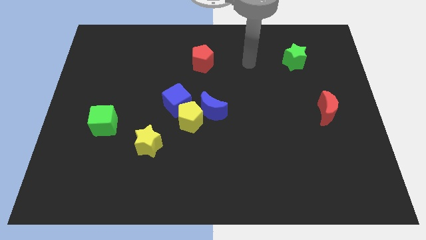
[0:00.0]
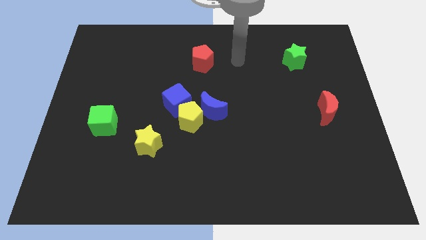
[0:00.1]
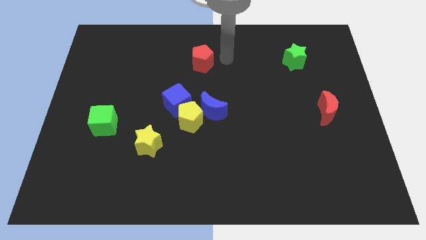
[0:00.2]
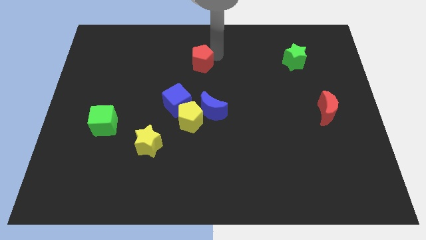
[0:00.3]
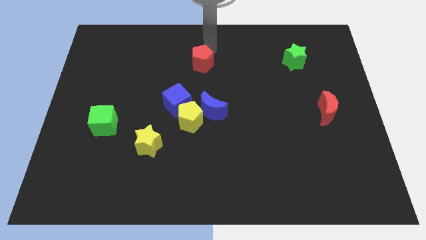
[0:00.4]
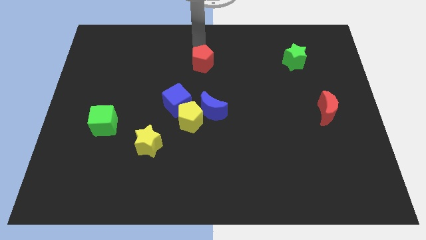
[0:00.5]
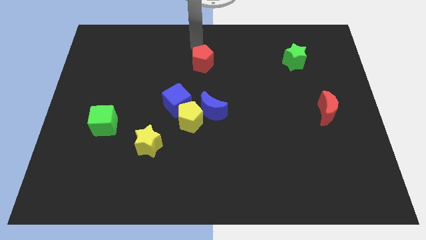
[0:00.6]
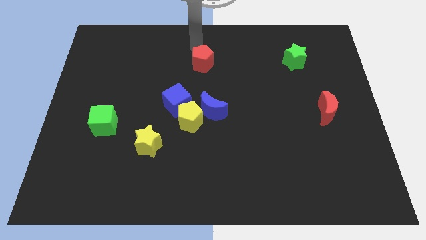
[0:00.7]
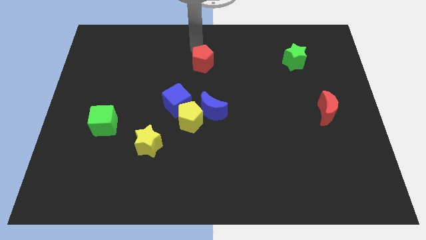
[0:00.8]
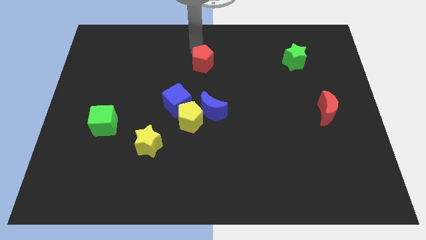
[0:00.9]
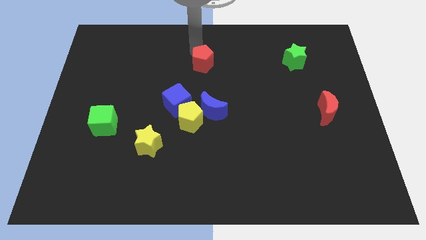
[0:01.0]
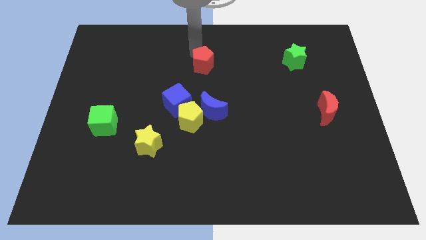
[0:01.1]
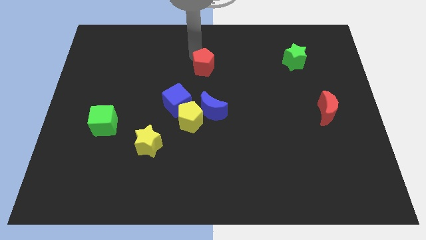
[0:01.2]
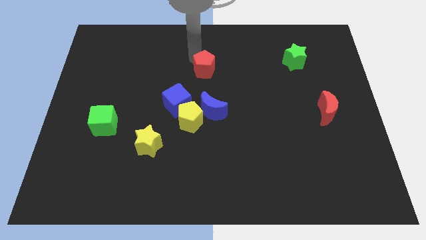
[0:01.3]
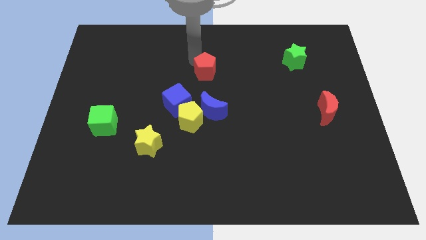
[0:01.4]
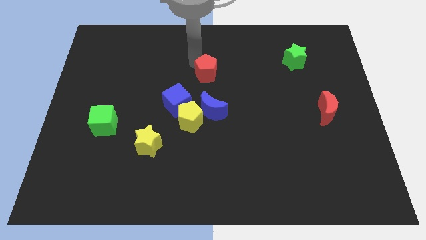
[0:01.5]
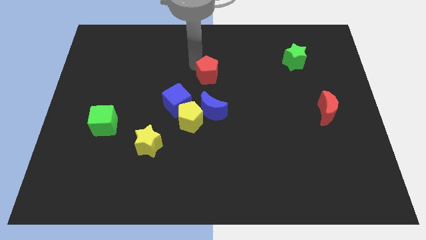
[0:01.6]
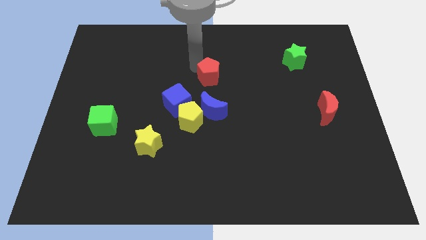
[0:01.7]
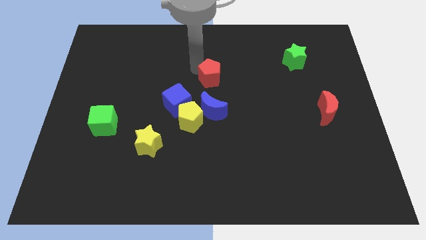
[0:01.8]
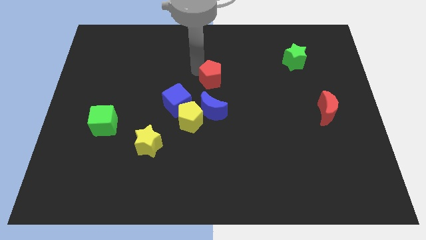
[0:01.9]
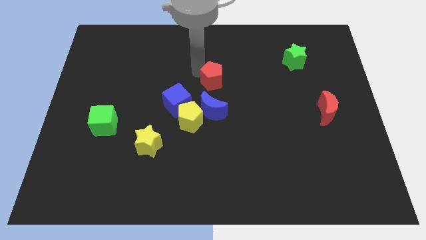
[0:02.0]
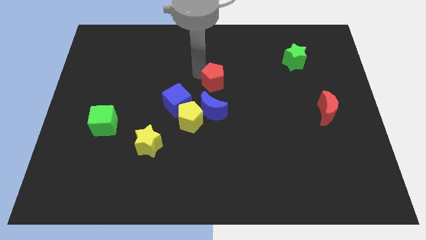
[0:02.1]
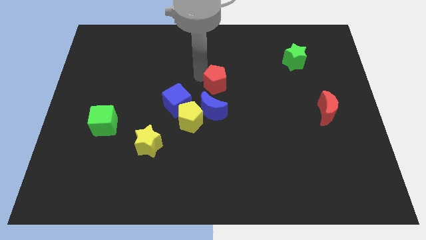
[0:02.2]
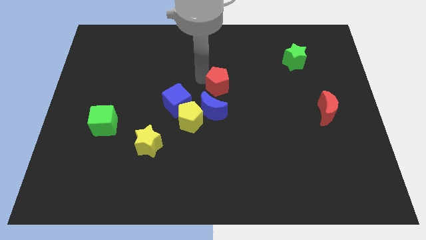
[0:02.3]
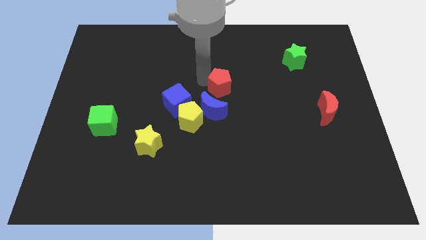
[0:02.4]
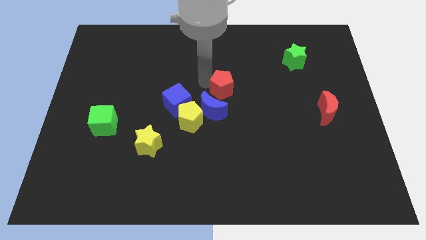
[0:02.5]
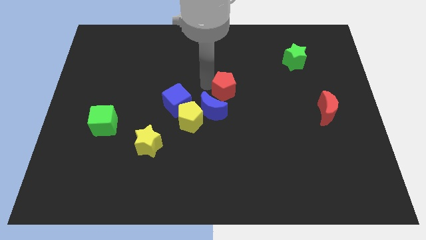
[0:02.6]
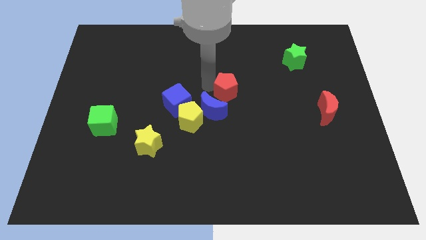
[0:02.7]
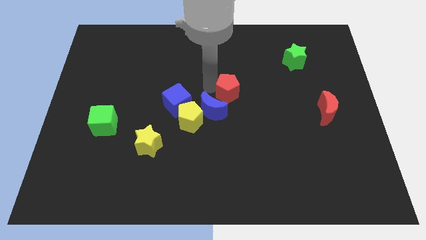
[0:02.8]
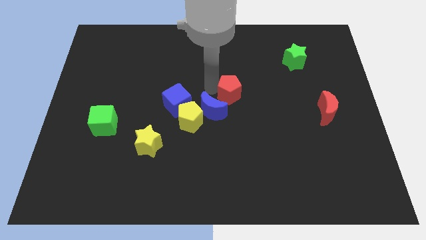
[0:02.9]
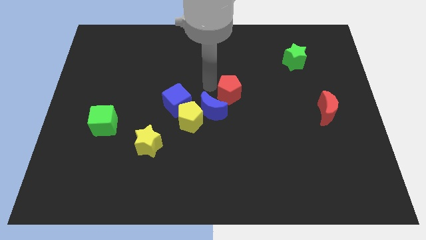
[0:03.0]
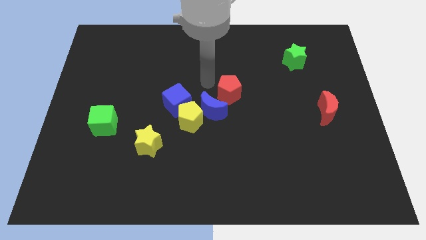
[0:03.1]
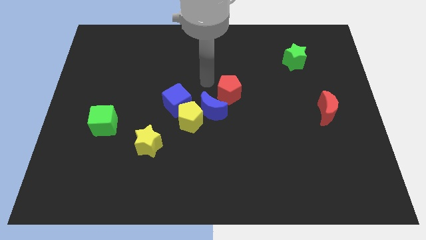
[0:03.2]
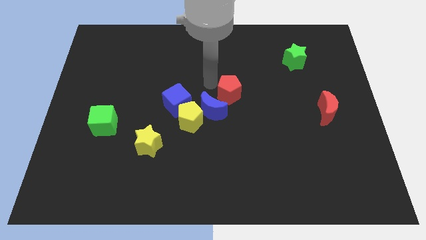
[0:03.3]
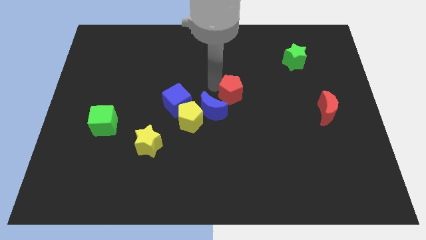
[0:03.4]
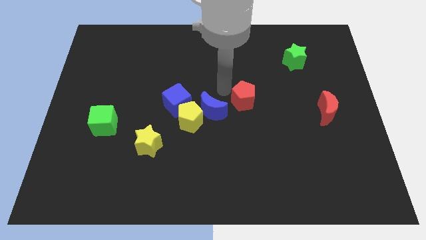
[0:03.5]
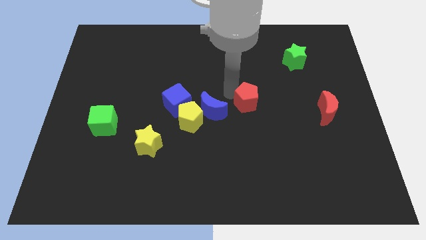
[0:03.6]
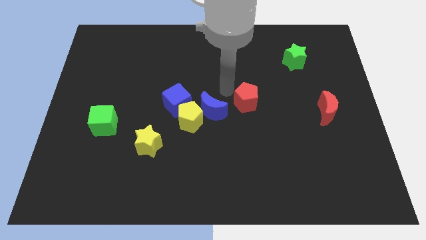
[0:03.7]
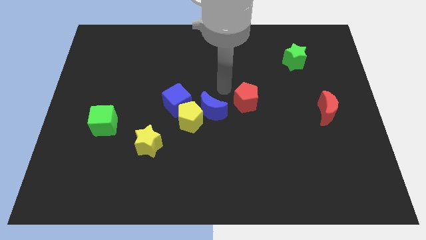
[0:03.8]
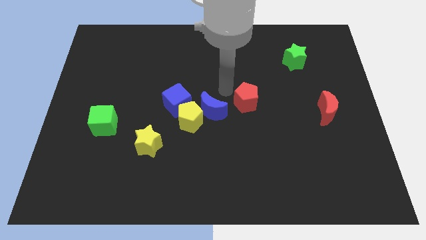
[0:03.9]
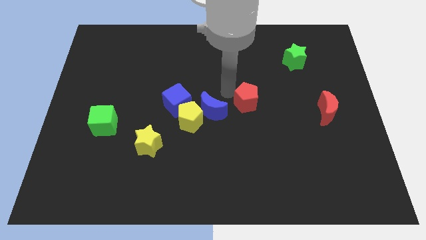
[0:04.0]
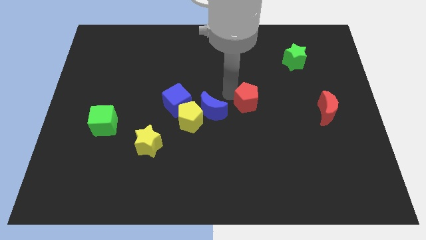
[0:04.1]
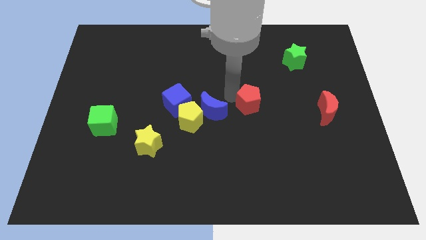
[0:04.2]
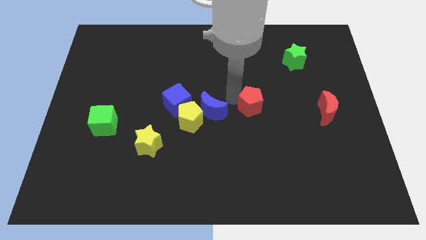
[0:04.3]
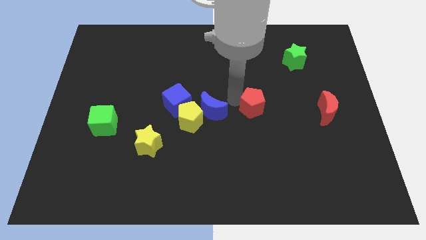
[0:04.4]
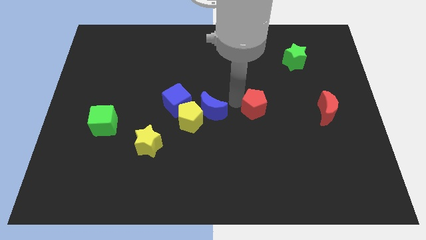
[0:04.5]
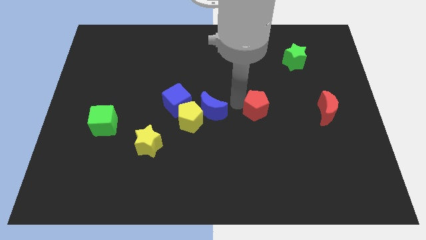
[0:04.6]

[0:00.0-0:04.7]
push the red pentagon down and right

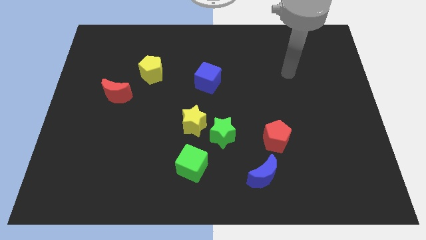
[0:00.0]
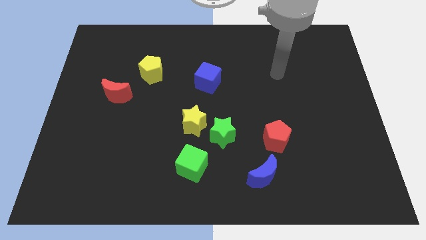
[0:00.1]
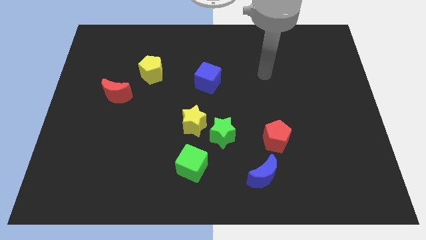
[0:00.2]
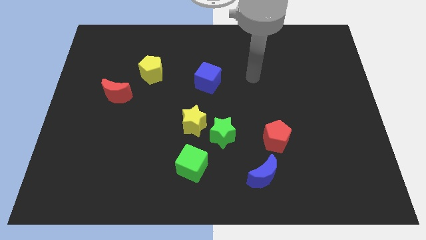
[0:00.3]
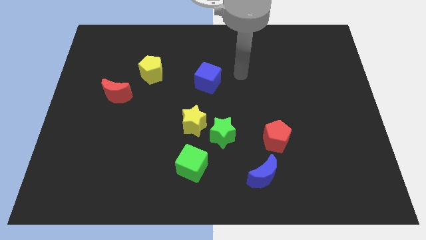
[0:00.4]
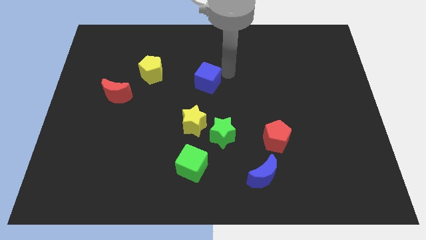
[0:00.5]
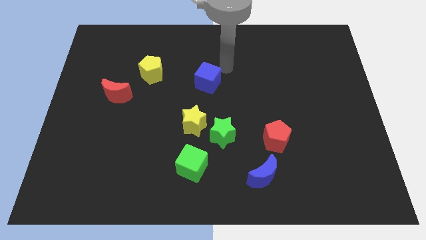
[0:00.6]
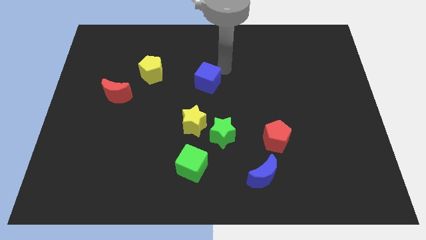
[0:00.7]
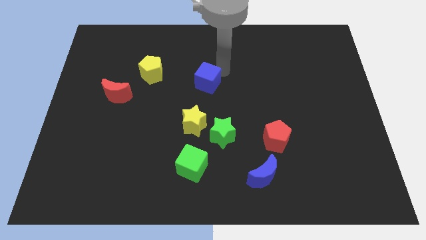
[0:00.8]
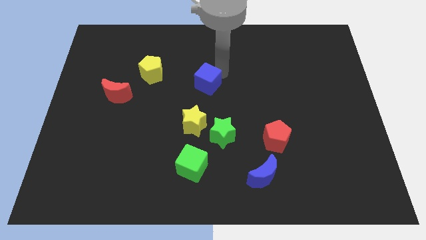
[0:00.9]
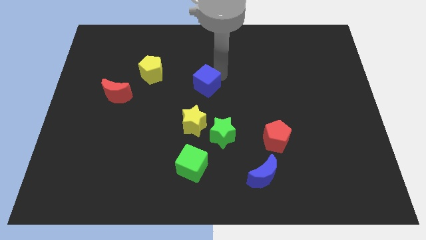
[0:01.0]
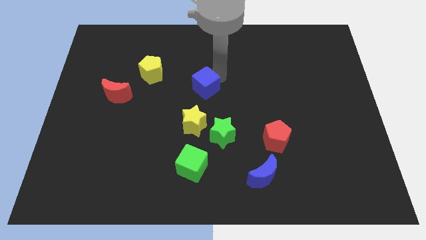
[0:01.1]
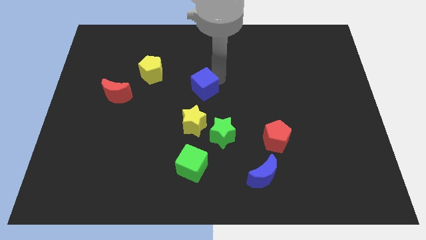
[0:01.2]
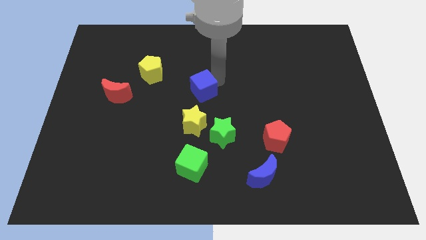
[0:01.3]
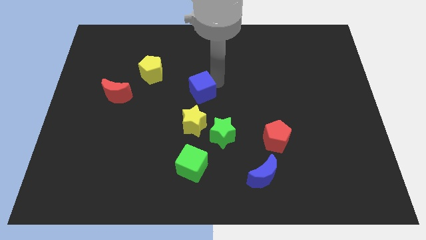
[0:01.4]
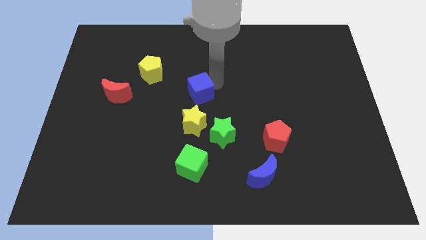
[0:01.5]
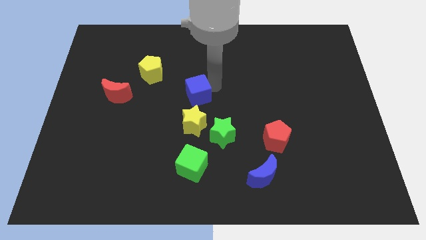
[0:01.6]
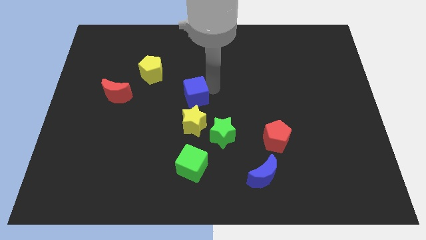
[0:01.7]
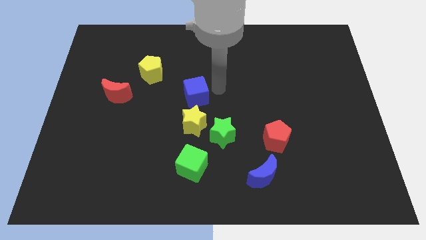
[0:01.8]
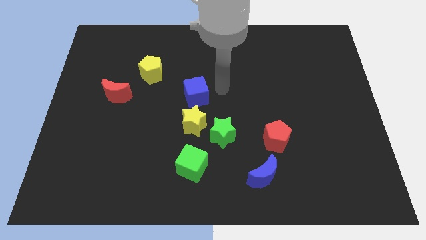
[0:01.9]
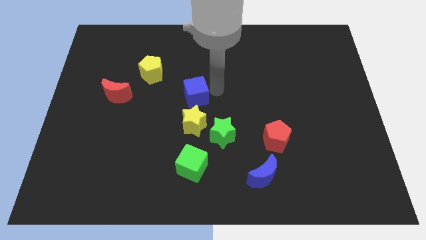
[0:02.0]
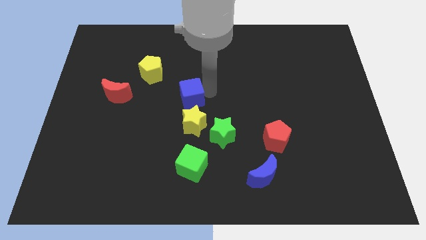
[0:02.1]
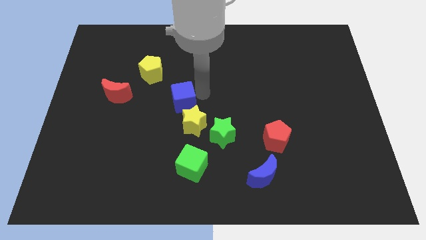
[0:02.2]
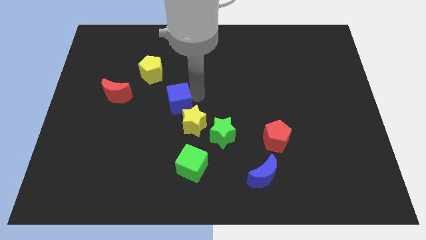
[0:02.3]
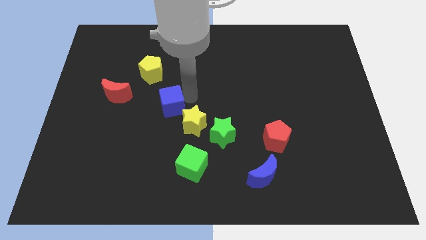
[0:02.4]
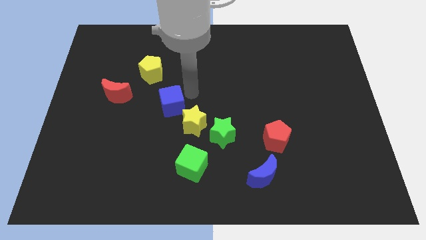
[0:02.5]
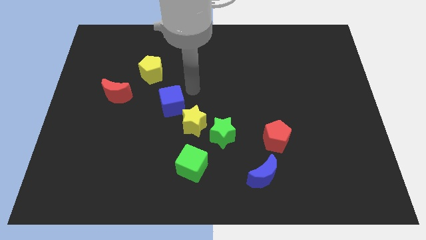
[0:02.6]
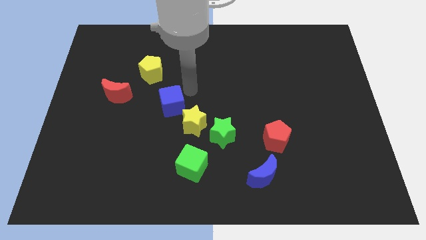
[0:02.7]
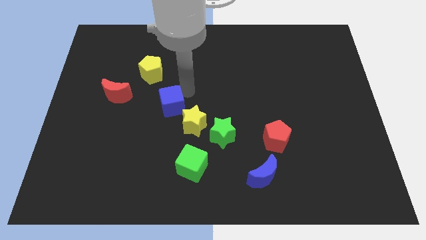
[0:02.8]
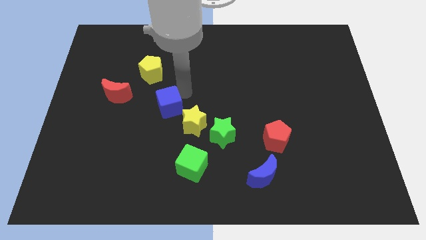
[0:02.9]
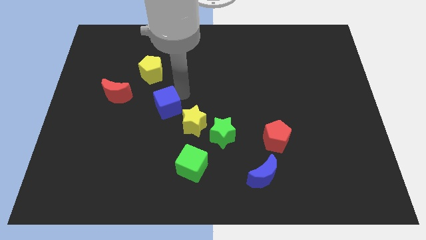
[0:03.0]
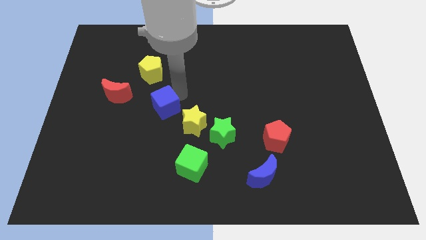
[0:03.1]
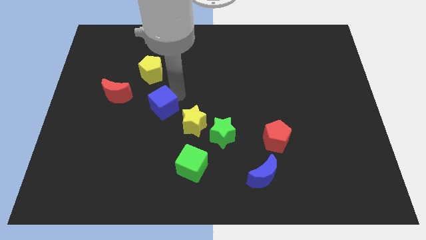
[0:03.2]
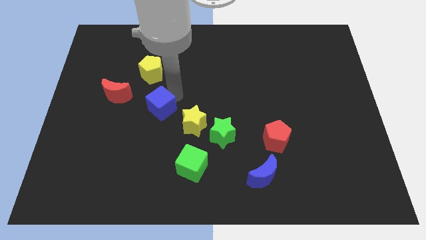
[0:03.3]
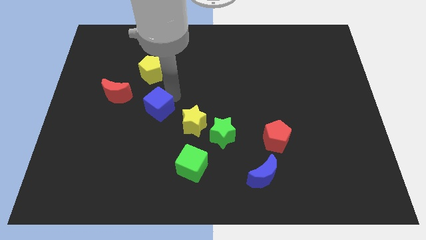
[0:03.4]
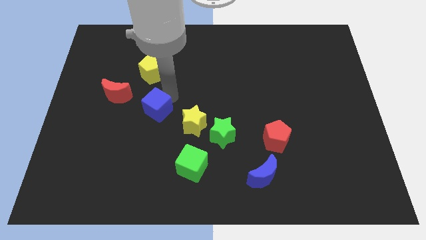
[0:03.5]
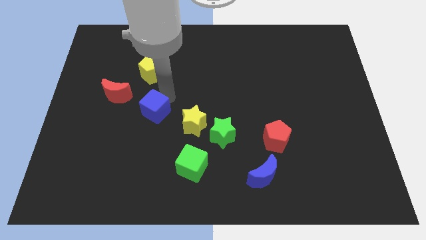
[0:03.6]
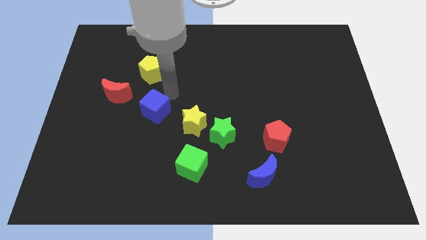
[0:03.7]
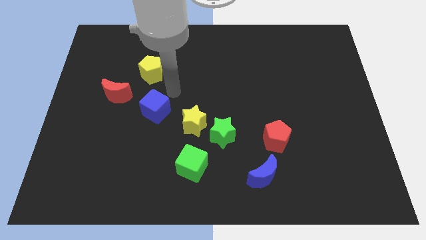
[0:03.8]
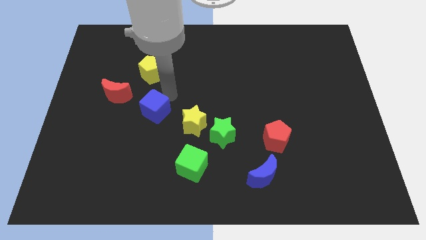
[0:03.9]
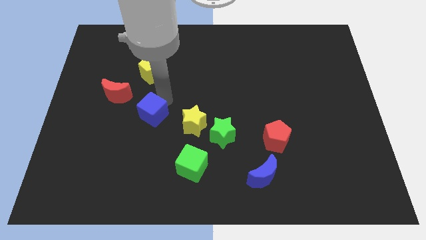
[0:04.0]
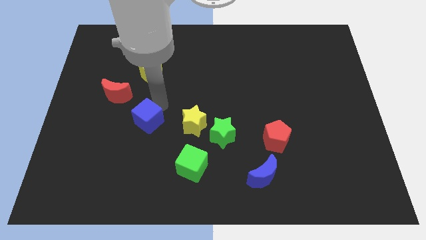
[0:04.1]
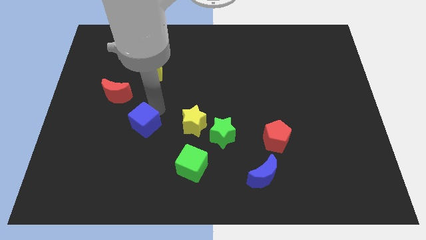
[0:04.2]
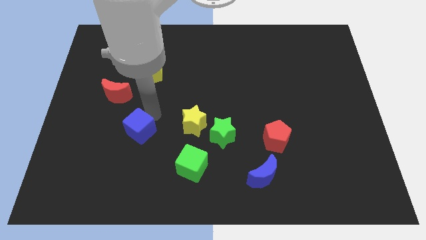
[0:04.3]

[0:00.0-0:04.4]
push the blue cube downwards and to the left
